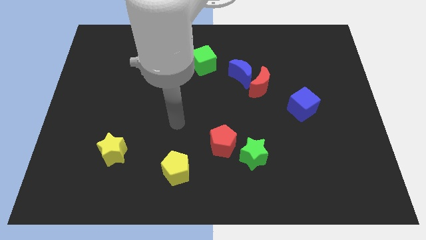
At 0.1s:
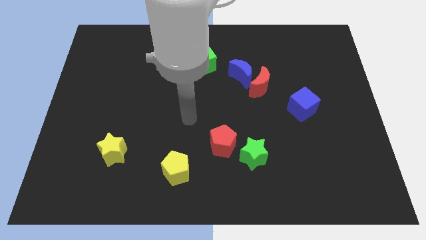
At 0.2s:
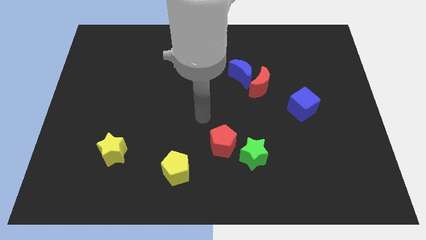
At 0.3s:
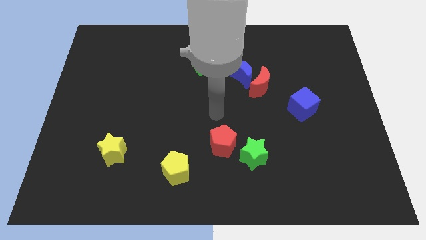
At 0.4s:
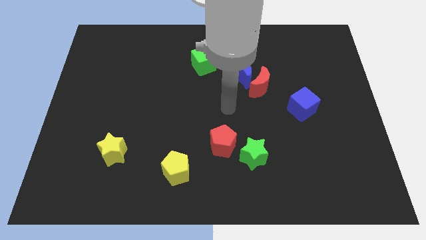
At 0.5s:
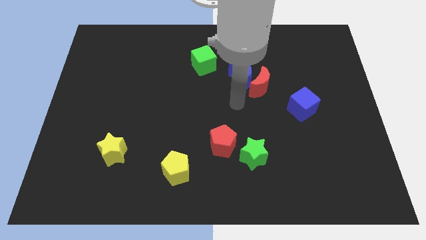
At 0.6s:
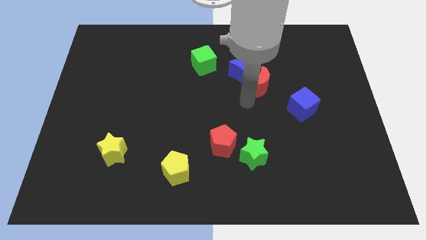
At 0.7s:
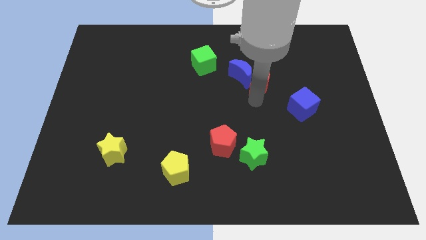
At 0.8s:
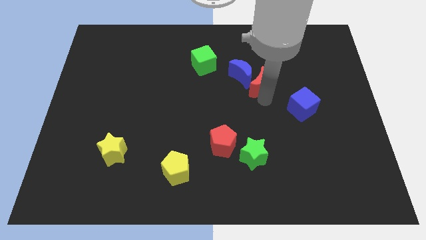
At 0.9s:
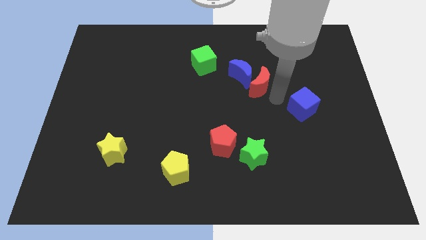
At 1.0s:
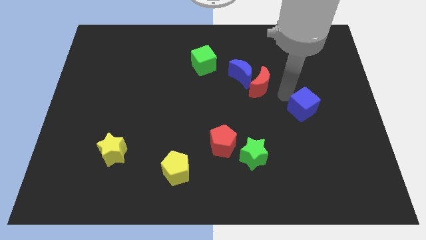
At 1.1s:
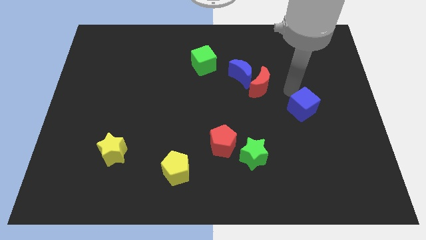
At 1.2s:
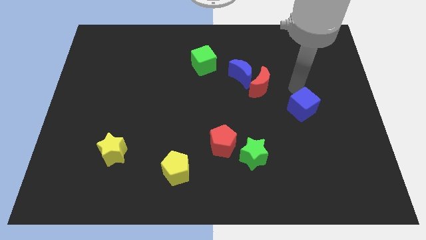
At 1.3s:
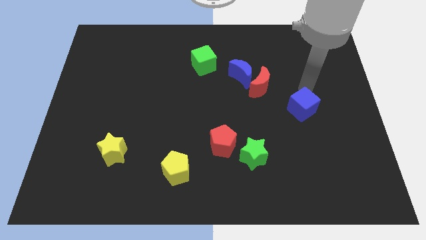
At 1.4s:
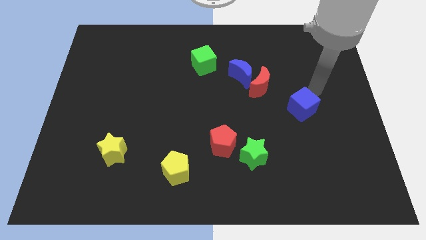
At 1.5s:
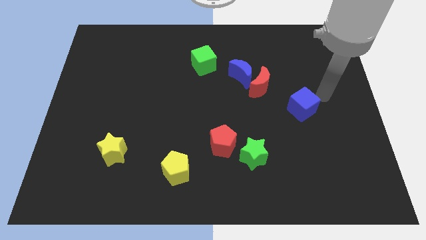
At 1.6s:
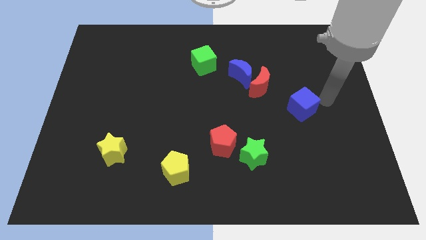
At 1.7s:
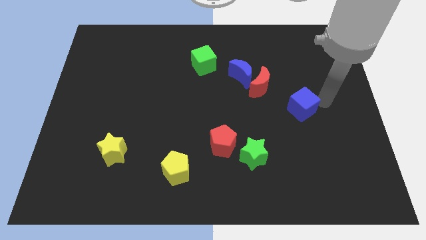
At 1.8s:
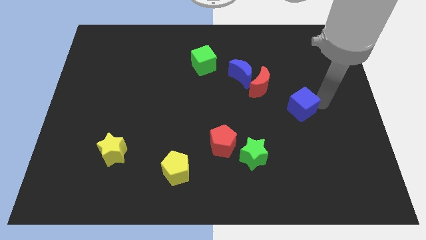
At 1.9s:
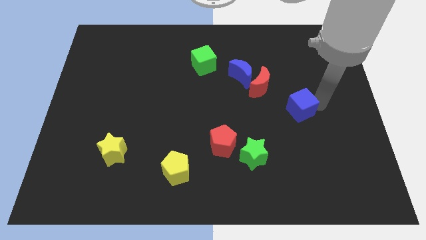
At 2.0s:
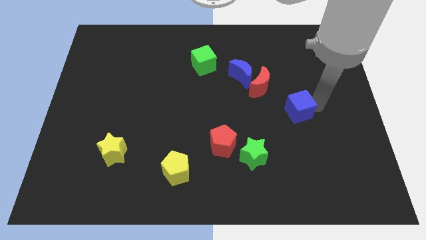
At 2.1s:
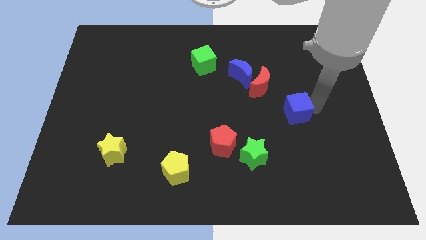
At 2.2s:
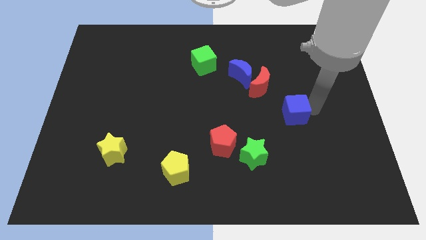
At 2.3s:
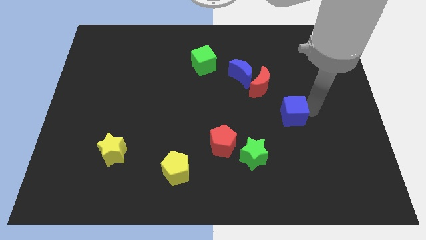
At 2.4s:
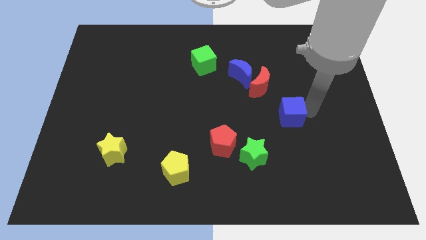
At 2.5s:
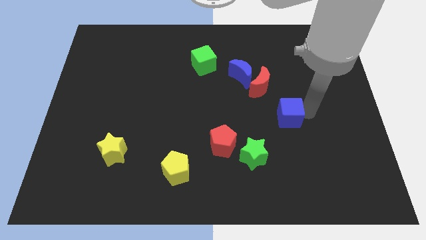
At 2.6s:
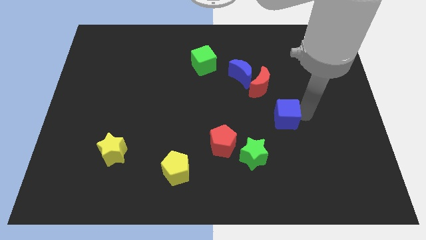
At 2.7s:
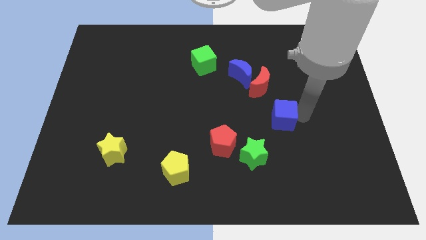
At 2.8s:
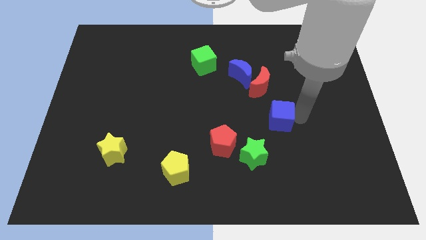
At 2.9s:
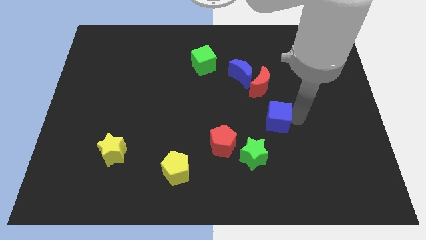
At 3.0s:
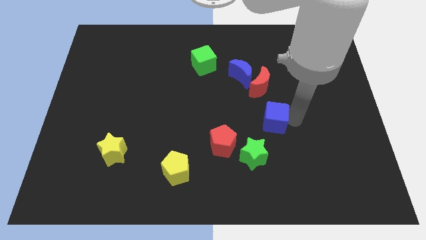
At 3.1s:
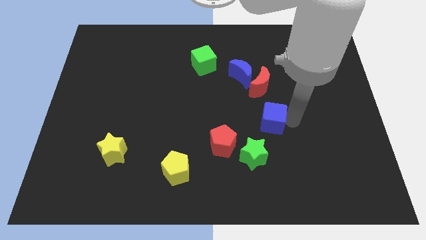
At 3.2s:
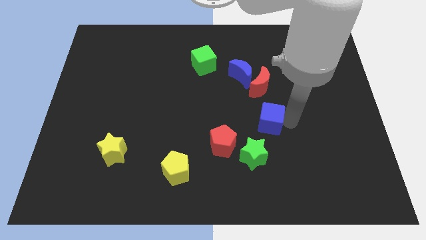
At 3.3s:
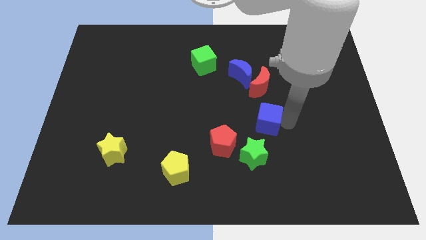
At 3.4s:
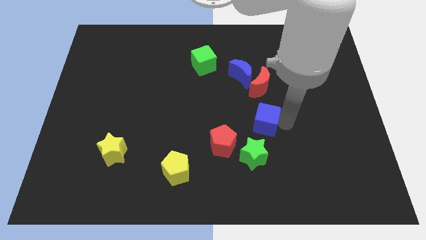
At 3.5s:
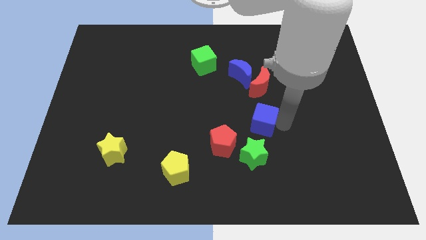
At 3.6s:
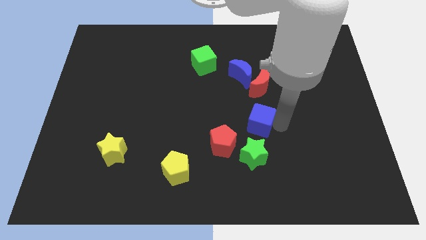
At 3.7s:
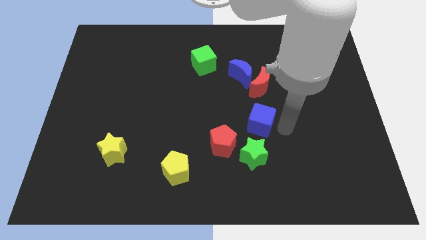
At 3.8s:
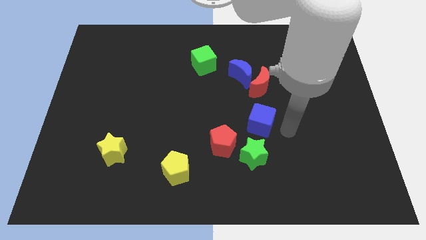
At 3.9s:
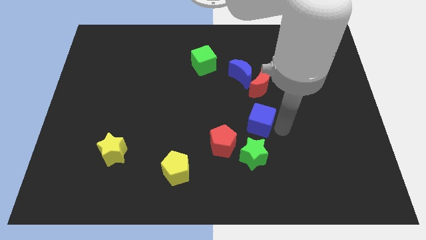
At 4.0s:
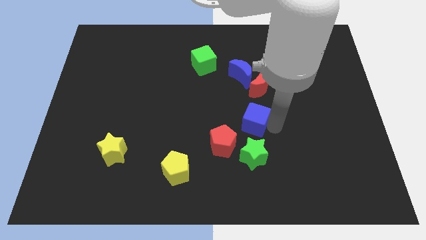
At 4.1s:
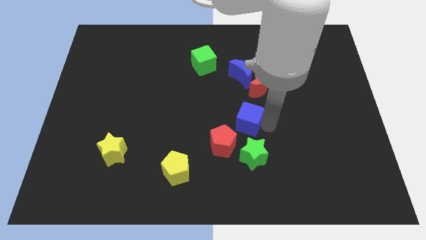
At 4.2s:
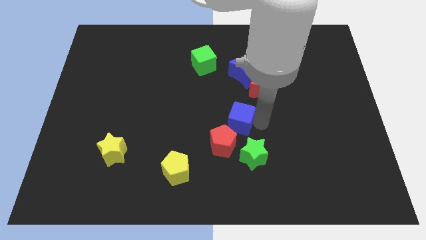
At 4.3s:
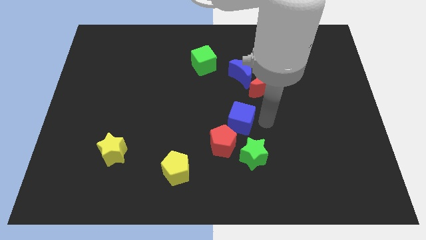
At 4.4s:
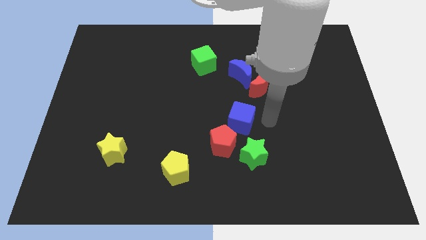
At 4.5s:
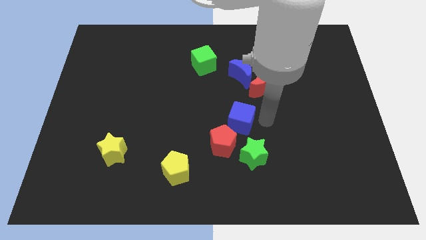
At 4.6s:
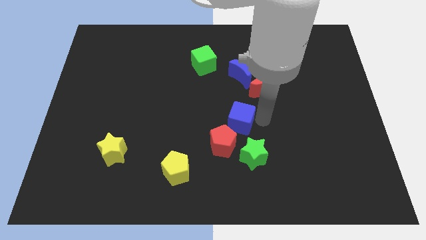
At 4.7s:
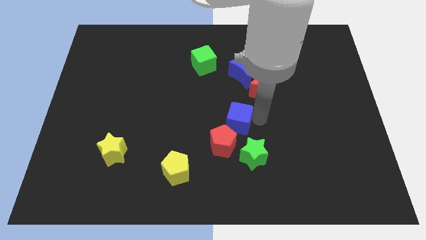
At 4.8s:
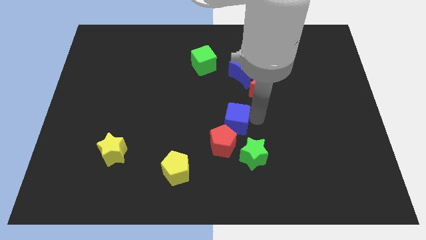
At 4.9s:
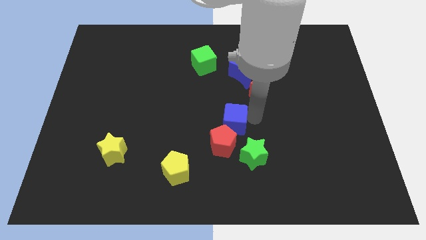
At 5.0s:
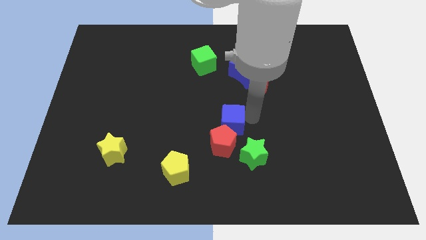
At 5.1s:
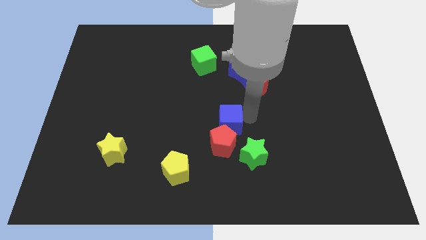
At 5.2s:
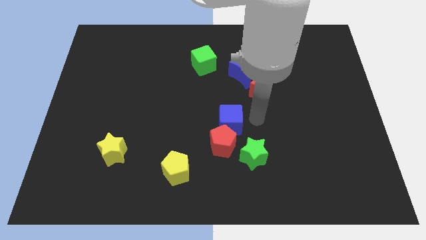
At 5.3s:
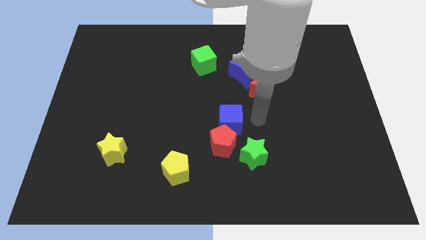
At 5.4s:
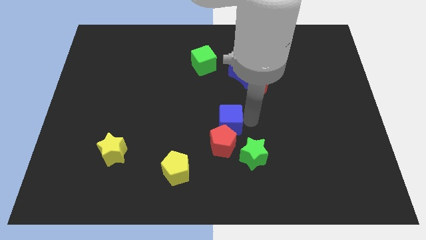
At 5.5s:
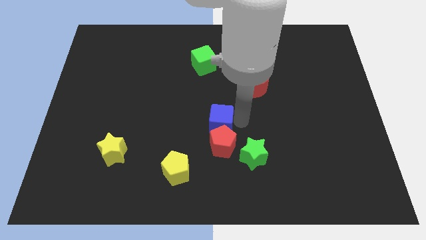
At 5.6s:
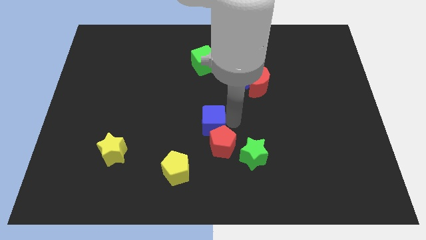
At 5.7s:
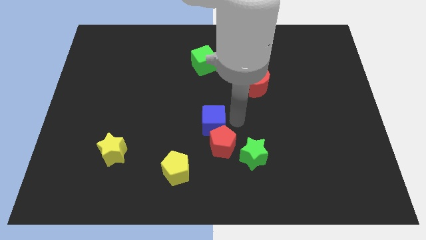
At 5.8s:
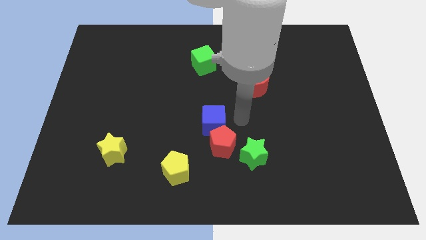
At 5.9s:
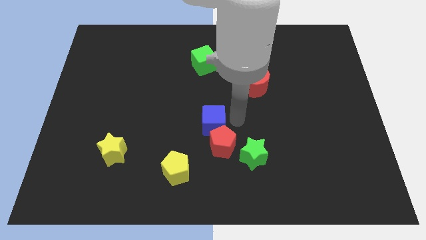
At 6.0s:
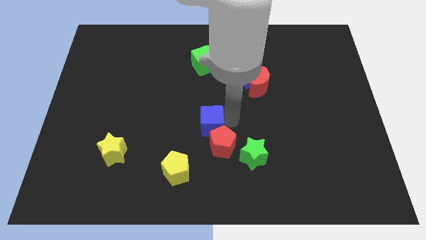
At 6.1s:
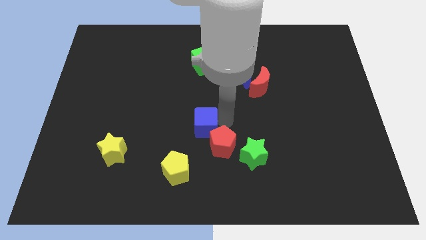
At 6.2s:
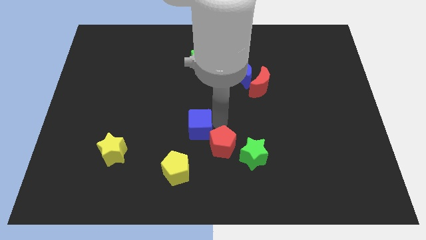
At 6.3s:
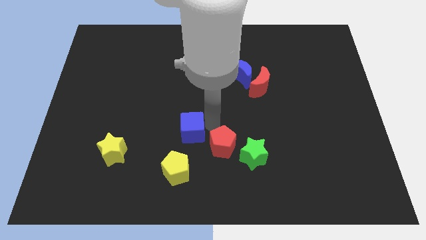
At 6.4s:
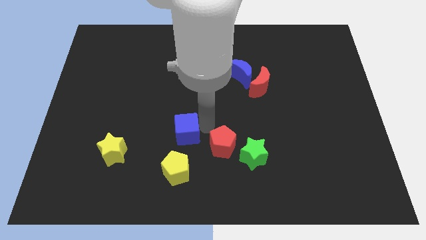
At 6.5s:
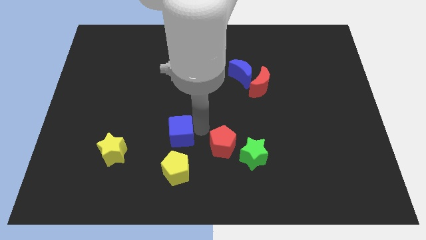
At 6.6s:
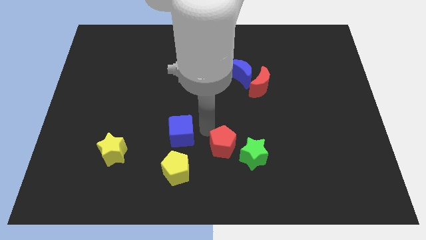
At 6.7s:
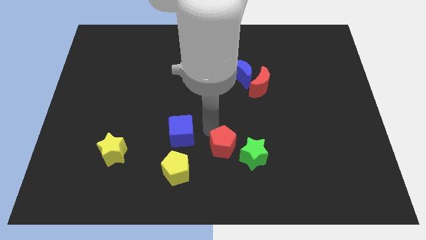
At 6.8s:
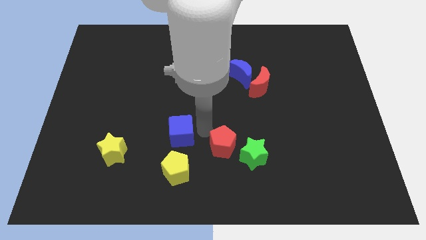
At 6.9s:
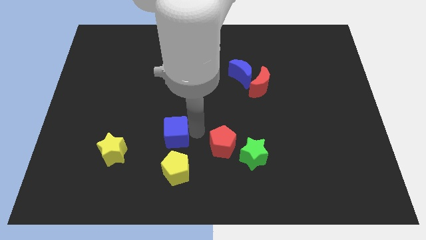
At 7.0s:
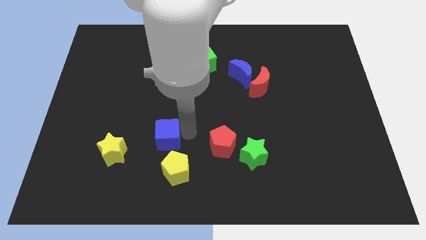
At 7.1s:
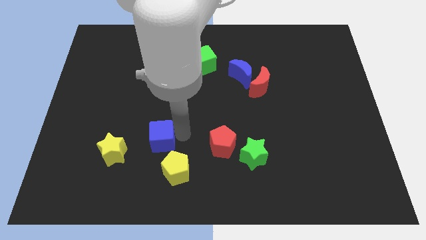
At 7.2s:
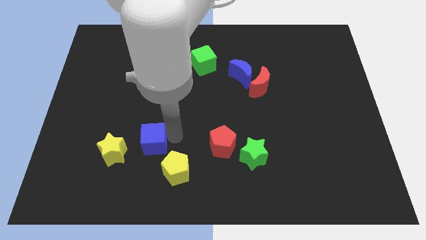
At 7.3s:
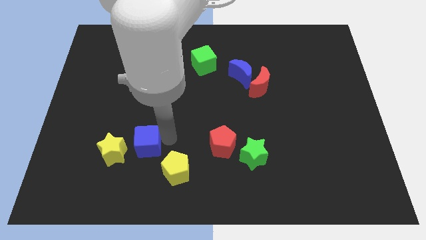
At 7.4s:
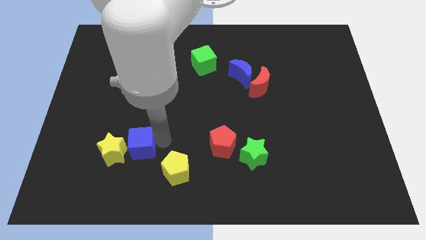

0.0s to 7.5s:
push the blue cube next to the yellow star
